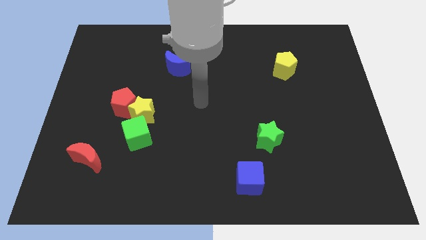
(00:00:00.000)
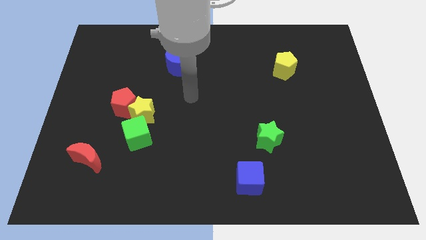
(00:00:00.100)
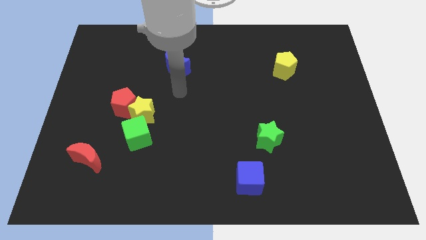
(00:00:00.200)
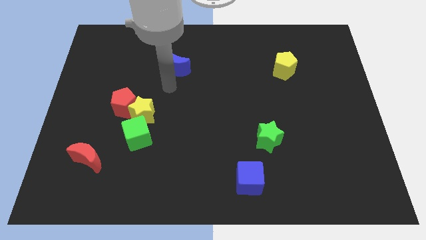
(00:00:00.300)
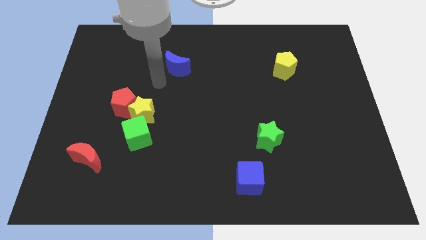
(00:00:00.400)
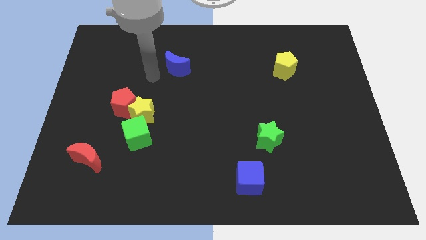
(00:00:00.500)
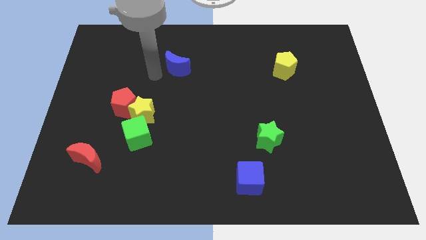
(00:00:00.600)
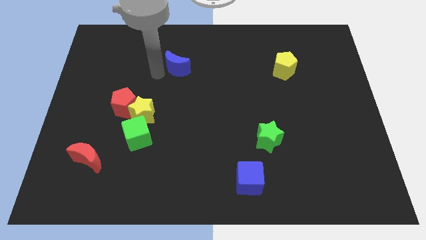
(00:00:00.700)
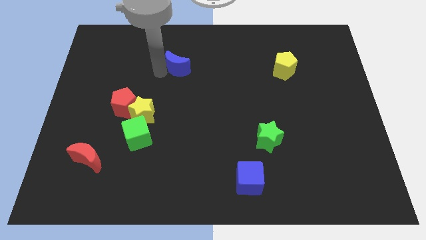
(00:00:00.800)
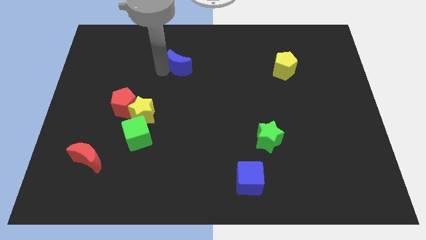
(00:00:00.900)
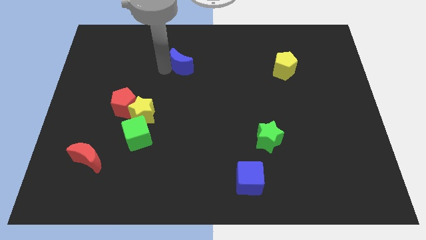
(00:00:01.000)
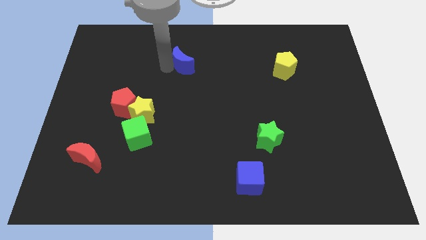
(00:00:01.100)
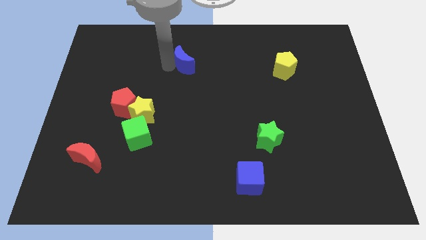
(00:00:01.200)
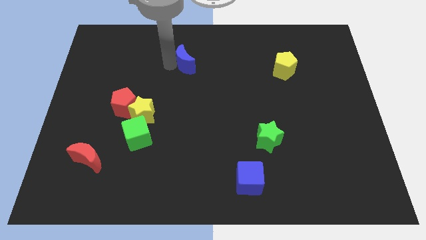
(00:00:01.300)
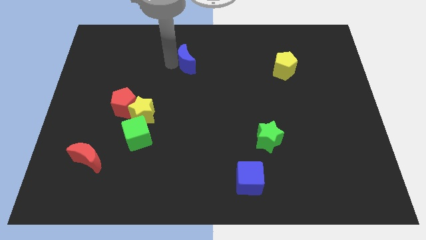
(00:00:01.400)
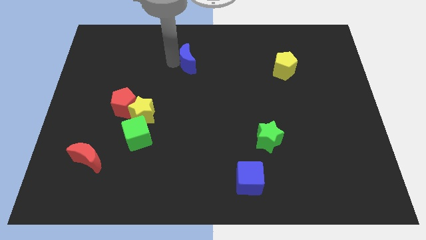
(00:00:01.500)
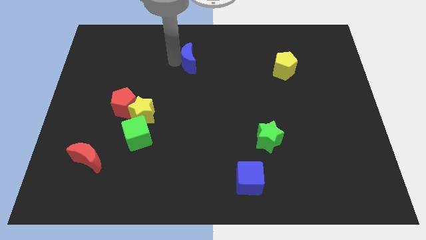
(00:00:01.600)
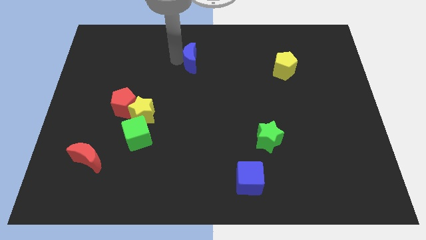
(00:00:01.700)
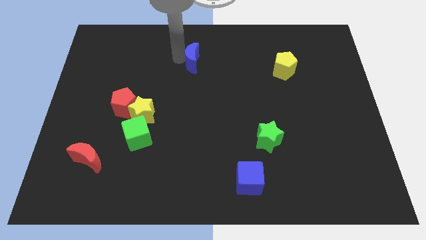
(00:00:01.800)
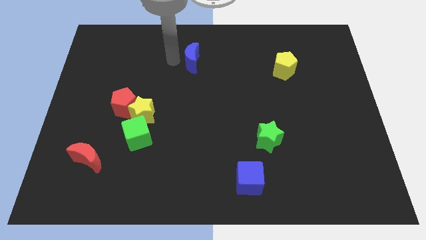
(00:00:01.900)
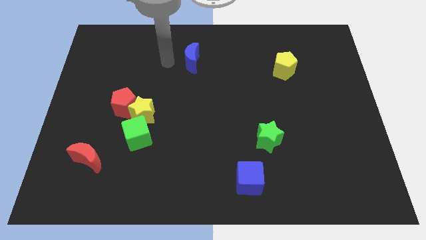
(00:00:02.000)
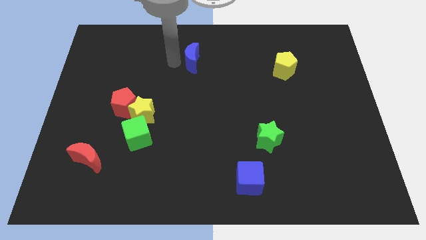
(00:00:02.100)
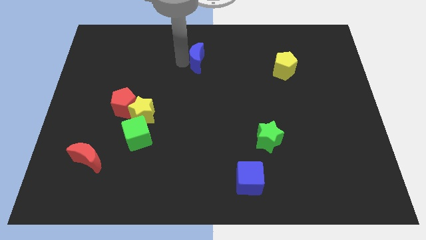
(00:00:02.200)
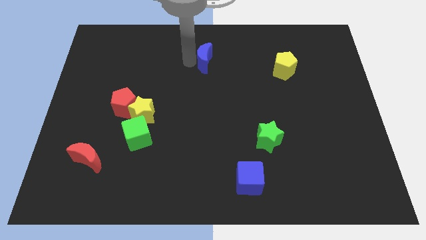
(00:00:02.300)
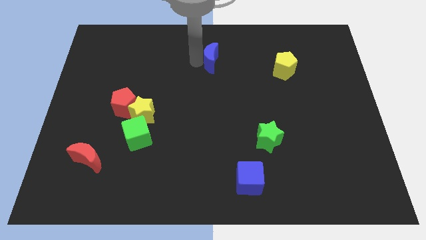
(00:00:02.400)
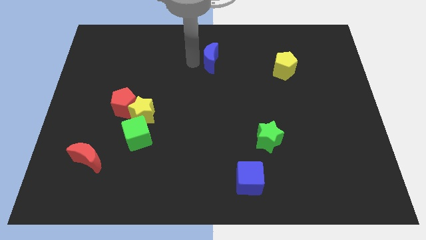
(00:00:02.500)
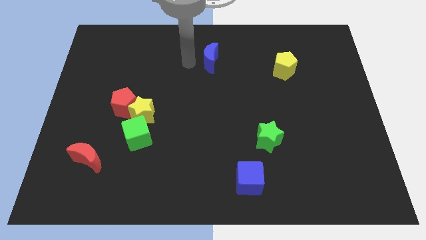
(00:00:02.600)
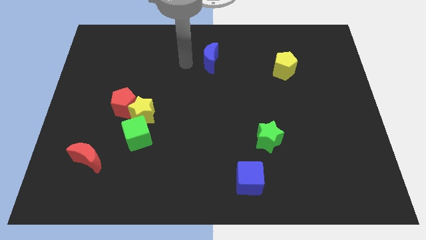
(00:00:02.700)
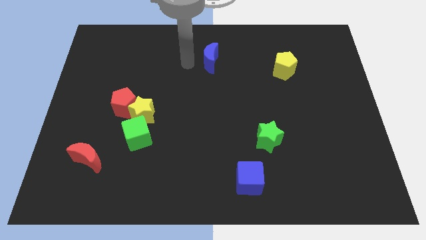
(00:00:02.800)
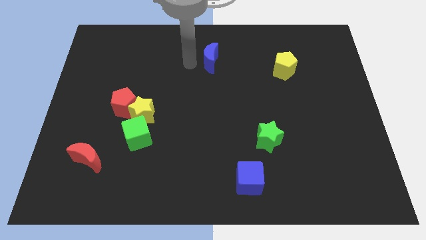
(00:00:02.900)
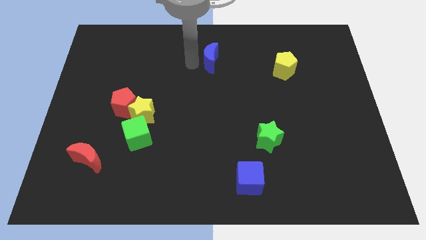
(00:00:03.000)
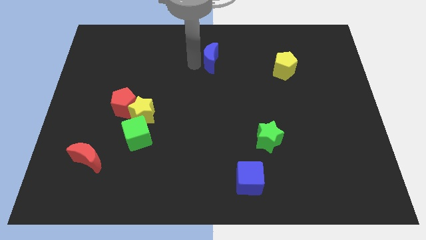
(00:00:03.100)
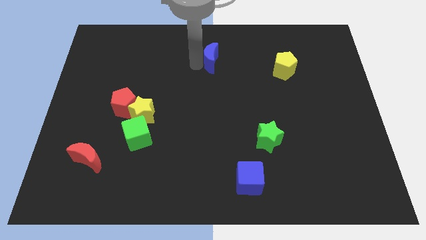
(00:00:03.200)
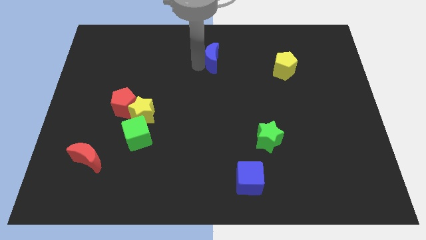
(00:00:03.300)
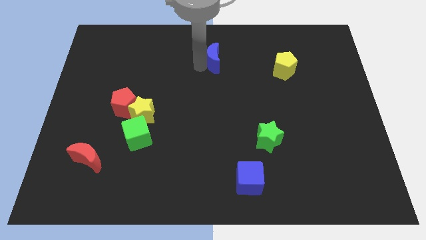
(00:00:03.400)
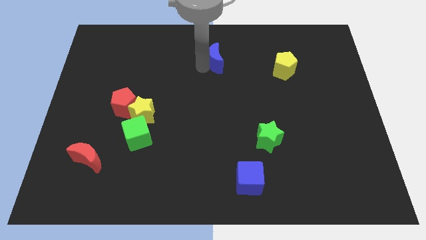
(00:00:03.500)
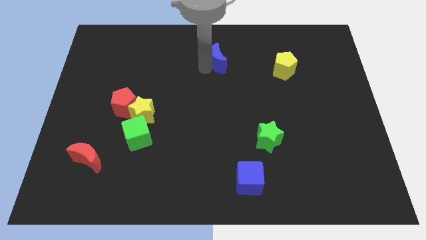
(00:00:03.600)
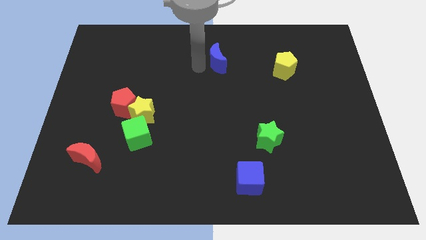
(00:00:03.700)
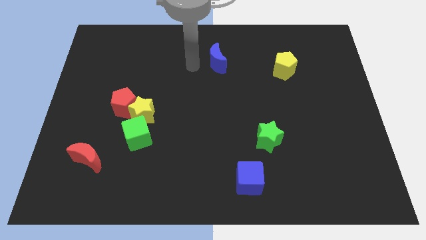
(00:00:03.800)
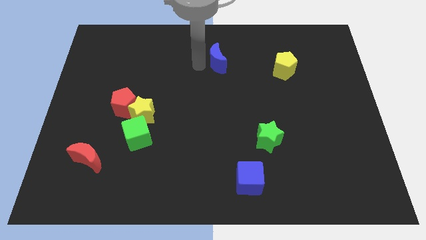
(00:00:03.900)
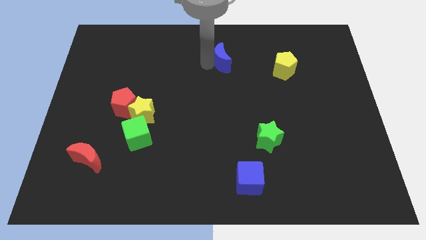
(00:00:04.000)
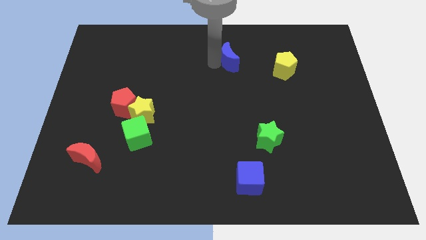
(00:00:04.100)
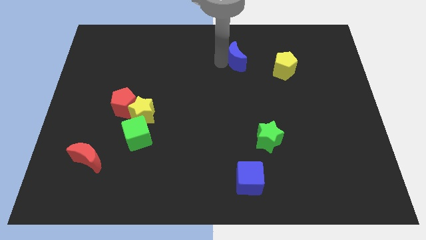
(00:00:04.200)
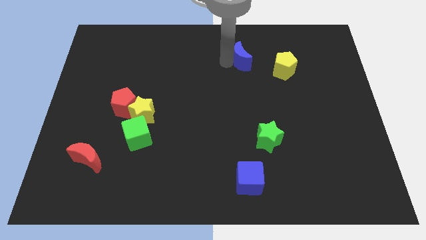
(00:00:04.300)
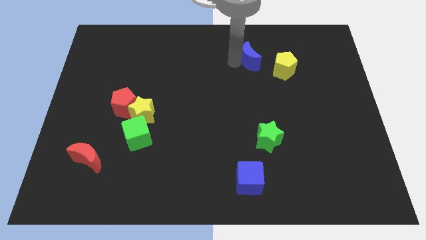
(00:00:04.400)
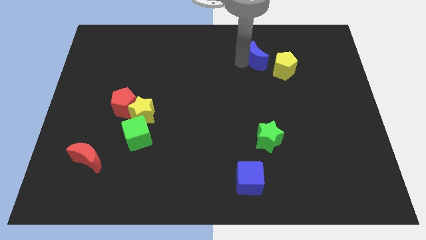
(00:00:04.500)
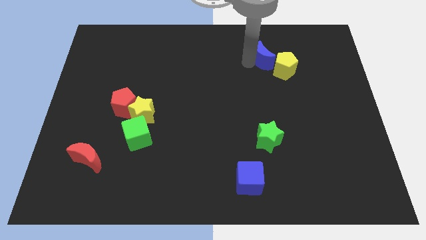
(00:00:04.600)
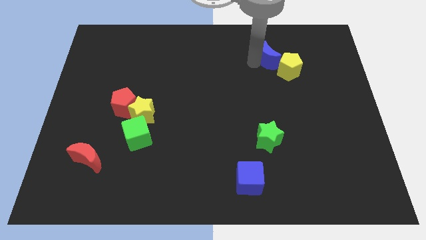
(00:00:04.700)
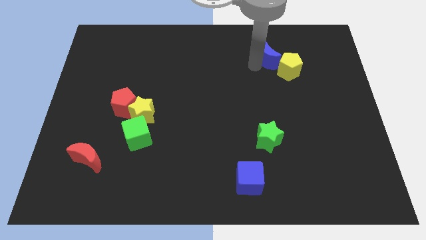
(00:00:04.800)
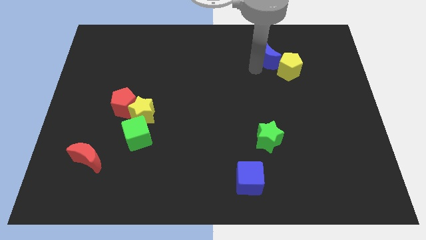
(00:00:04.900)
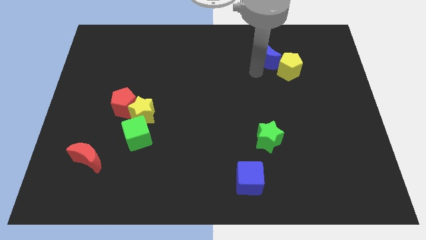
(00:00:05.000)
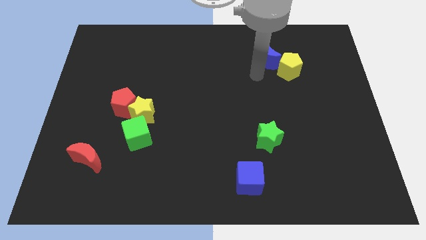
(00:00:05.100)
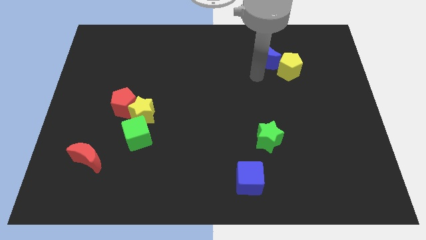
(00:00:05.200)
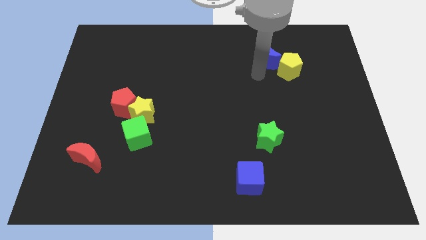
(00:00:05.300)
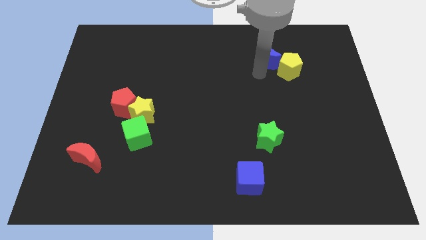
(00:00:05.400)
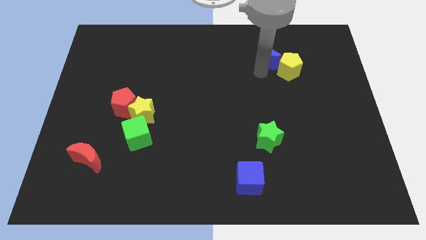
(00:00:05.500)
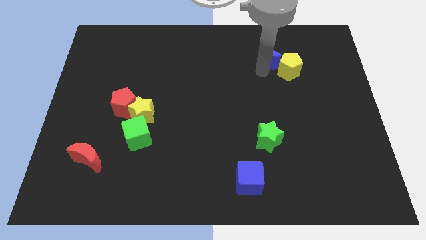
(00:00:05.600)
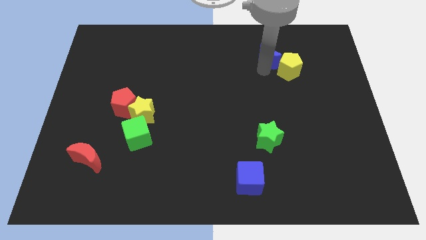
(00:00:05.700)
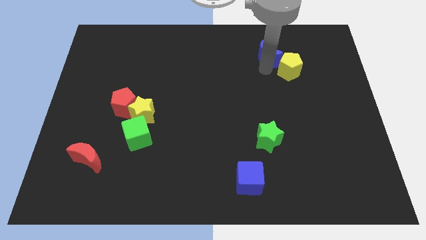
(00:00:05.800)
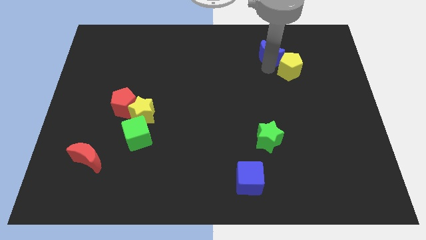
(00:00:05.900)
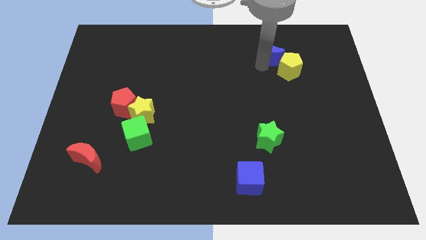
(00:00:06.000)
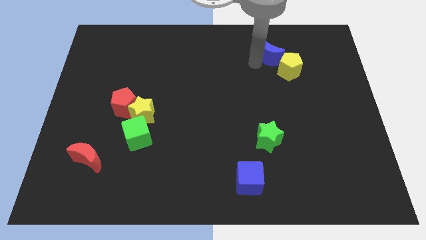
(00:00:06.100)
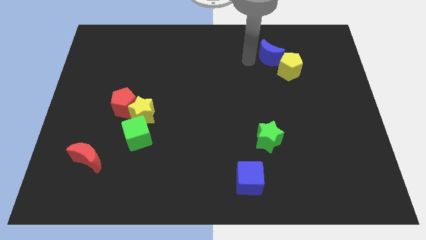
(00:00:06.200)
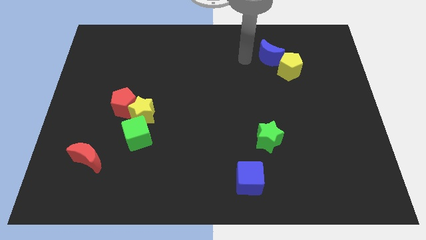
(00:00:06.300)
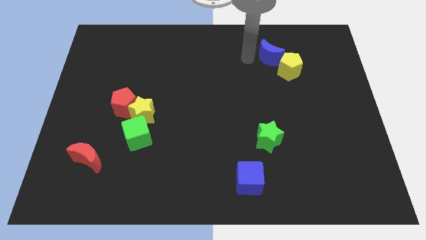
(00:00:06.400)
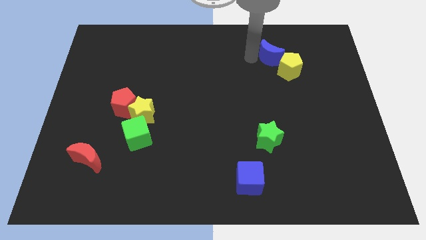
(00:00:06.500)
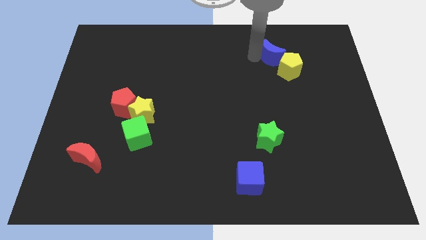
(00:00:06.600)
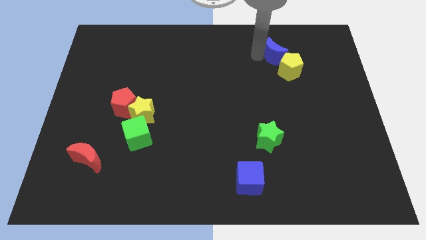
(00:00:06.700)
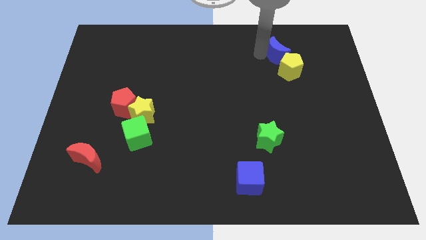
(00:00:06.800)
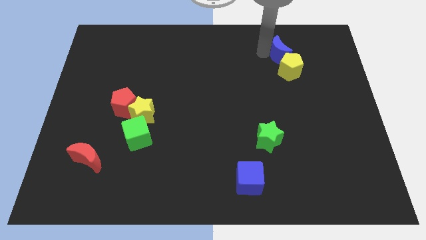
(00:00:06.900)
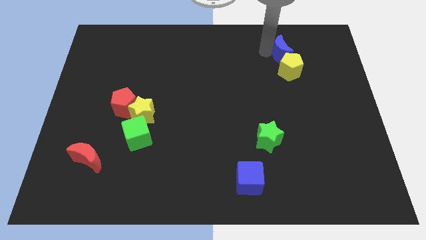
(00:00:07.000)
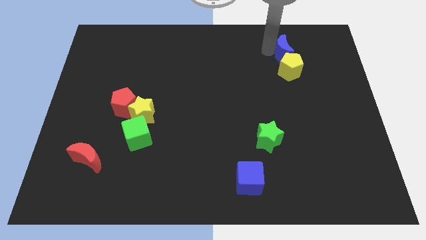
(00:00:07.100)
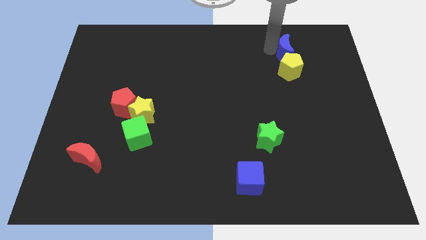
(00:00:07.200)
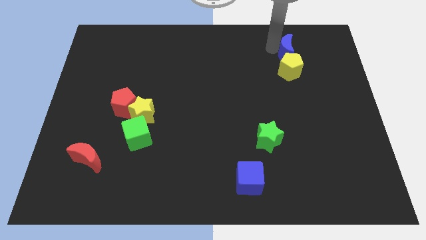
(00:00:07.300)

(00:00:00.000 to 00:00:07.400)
push the blue moon to the top right of the yellow pentagon

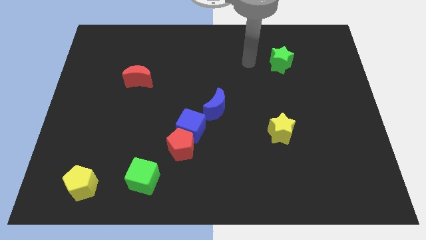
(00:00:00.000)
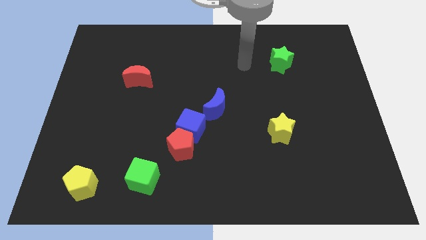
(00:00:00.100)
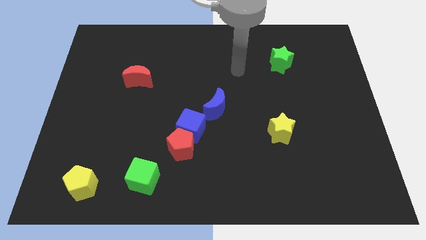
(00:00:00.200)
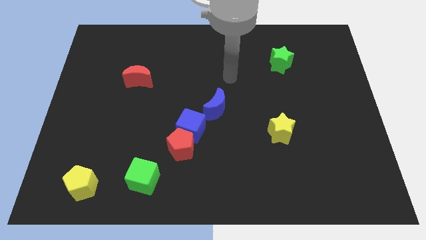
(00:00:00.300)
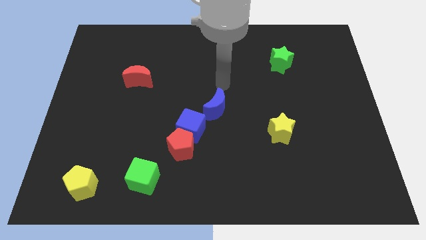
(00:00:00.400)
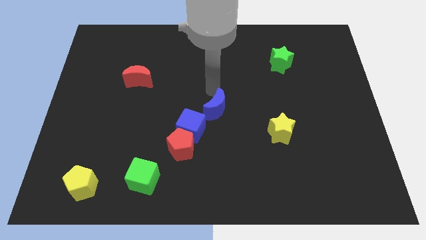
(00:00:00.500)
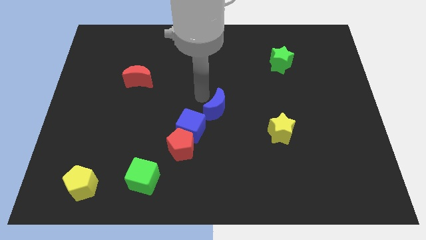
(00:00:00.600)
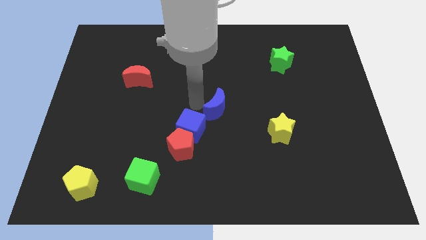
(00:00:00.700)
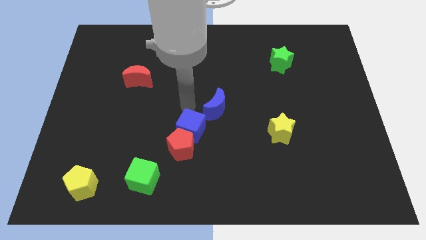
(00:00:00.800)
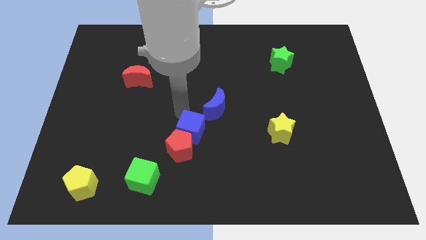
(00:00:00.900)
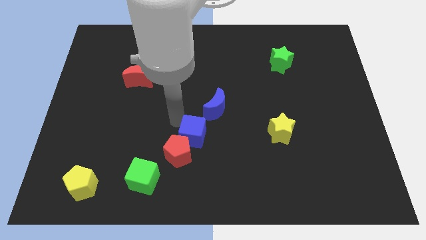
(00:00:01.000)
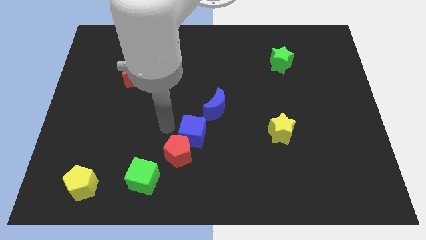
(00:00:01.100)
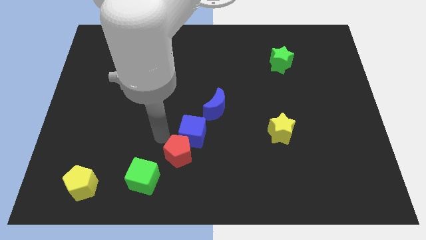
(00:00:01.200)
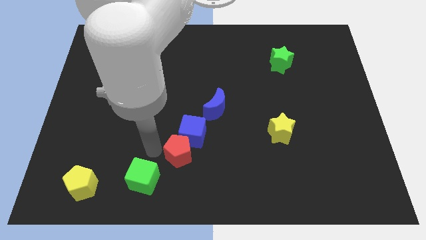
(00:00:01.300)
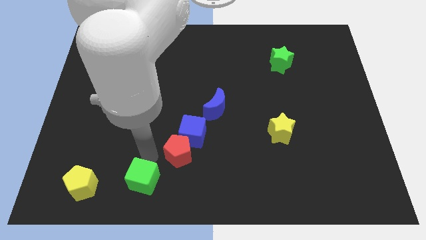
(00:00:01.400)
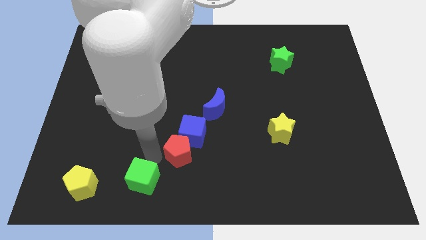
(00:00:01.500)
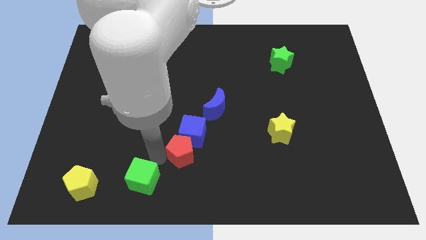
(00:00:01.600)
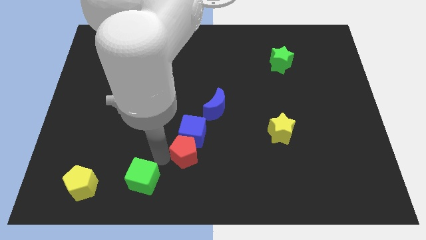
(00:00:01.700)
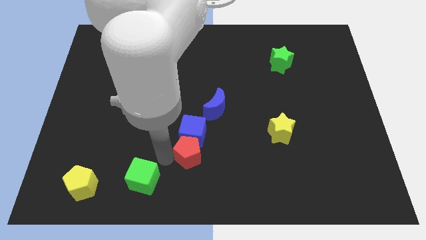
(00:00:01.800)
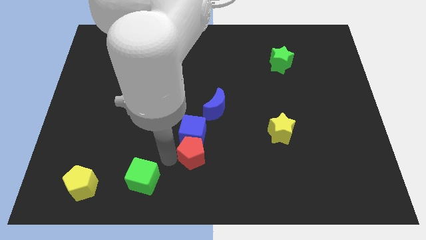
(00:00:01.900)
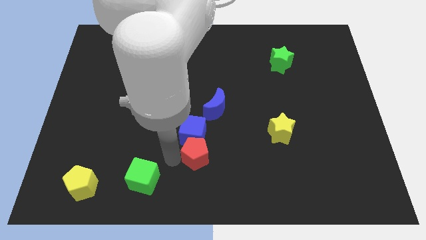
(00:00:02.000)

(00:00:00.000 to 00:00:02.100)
slide the red pentagon below the blue moon
